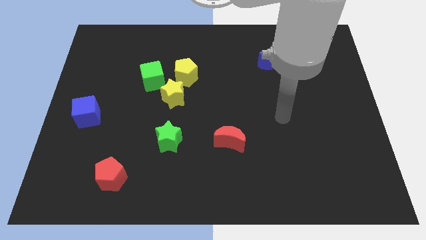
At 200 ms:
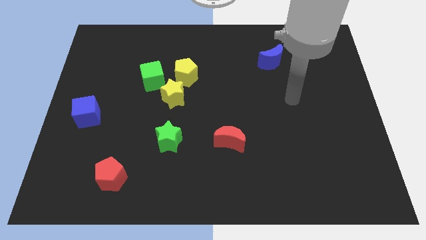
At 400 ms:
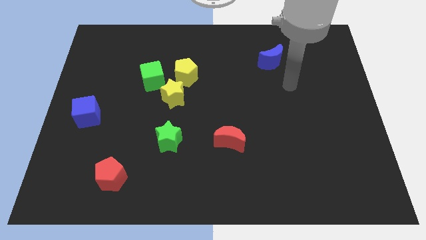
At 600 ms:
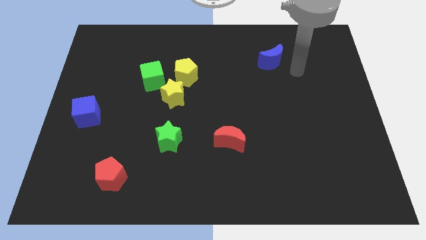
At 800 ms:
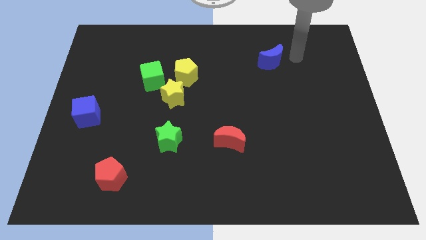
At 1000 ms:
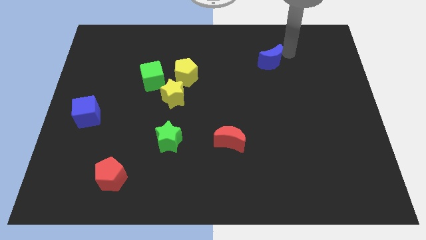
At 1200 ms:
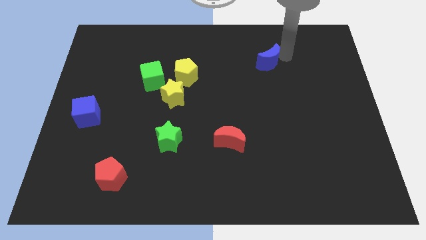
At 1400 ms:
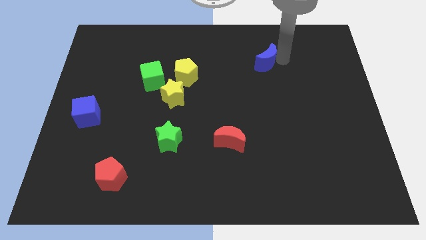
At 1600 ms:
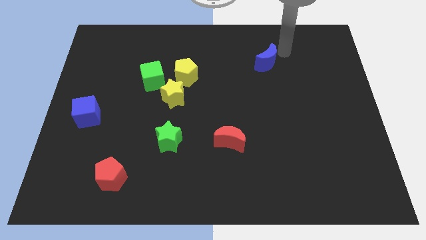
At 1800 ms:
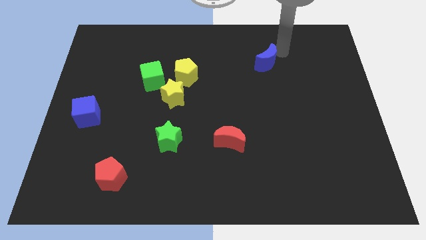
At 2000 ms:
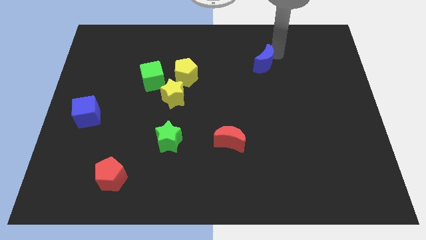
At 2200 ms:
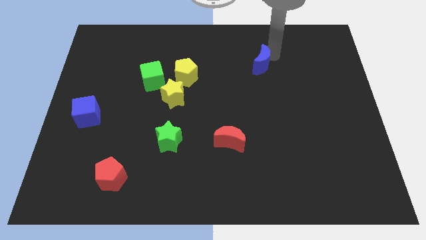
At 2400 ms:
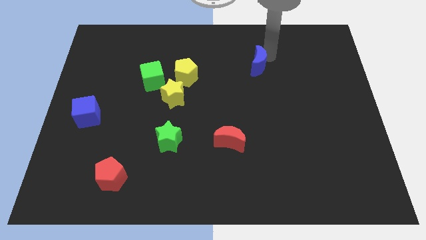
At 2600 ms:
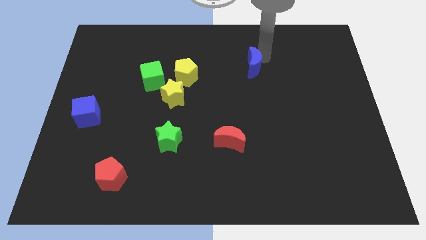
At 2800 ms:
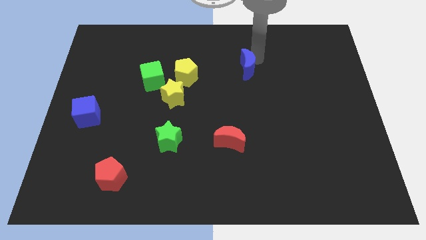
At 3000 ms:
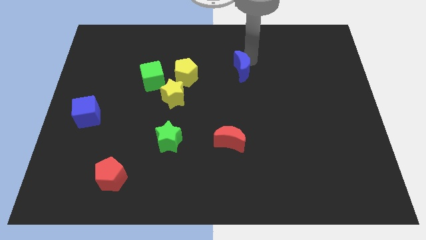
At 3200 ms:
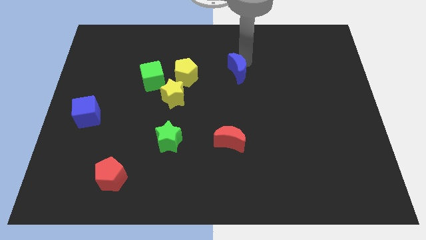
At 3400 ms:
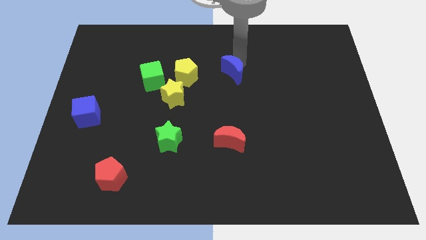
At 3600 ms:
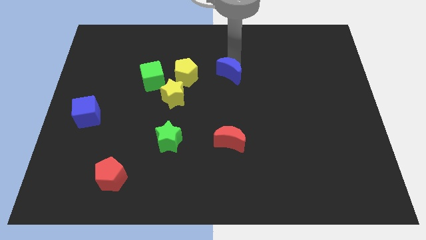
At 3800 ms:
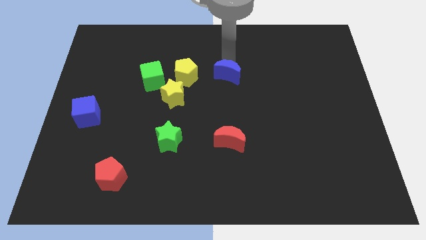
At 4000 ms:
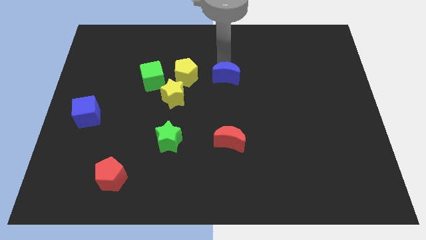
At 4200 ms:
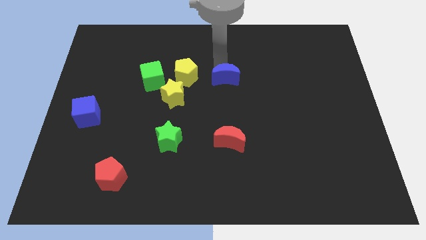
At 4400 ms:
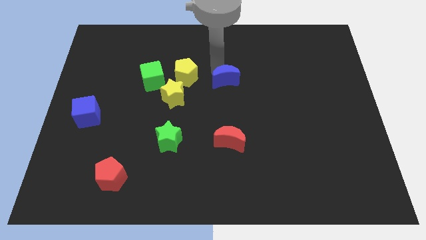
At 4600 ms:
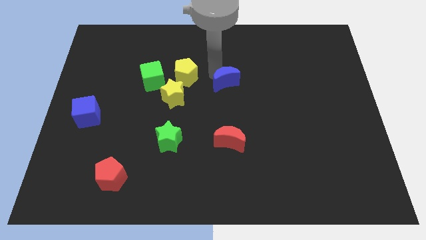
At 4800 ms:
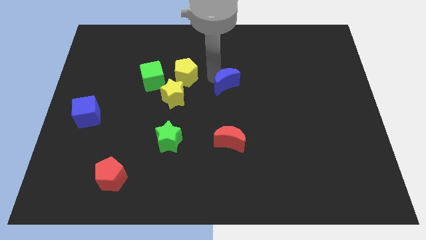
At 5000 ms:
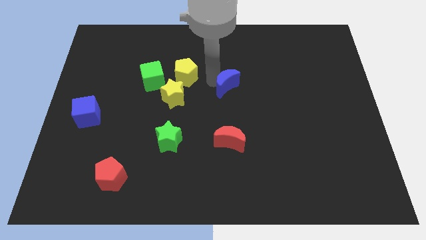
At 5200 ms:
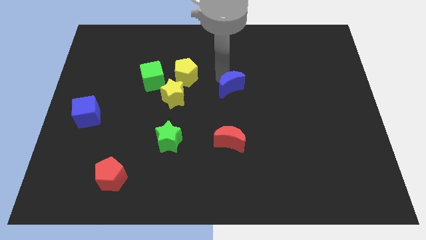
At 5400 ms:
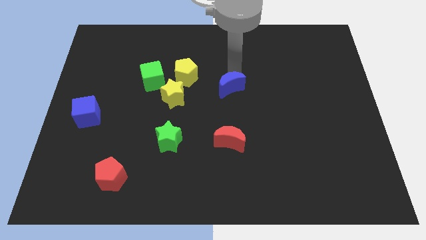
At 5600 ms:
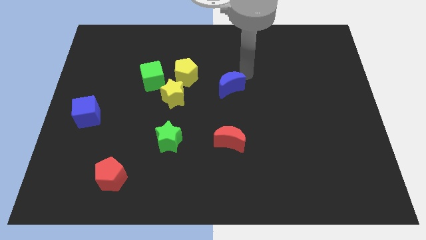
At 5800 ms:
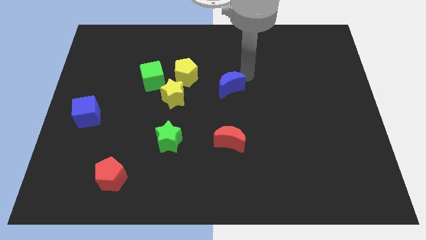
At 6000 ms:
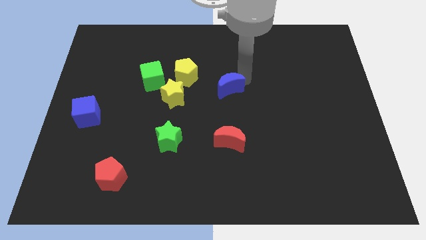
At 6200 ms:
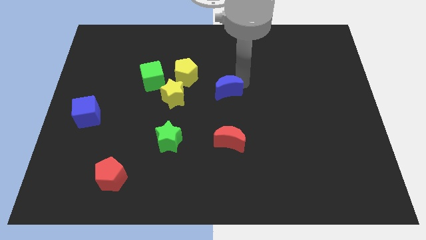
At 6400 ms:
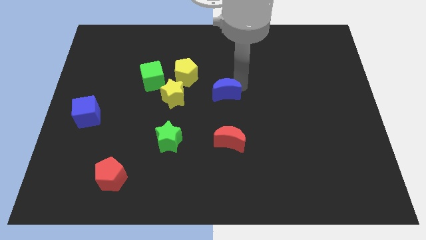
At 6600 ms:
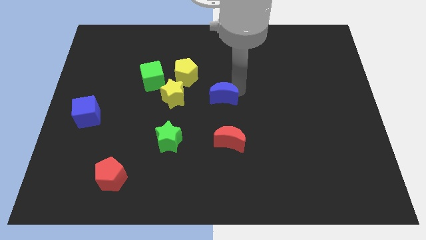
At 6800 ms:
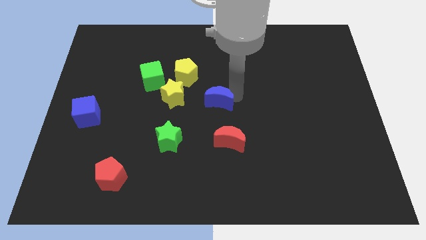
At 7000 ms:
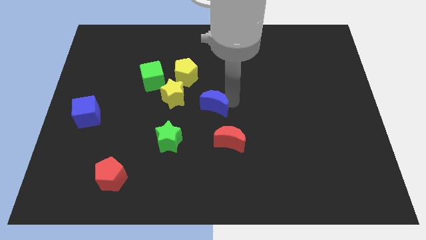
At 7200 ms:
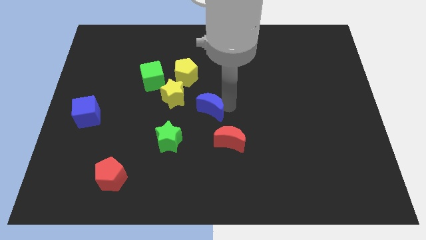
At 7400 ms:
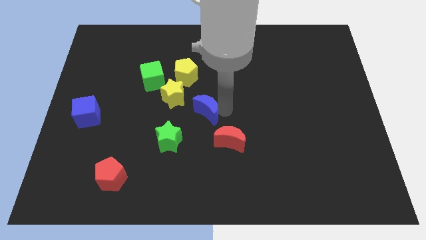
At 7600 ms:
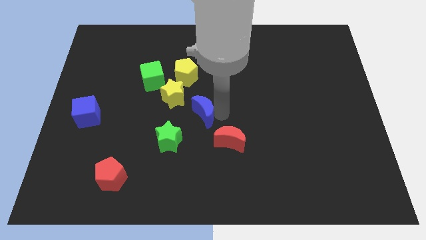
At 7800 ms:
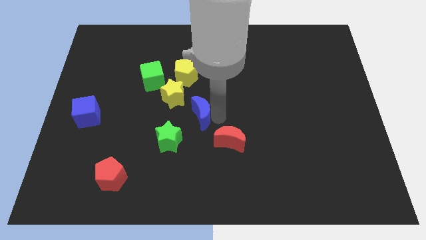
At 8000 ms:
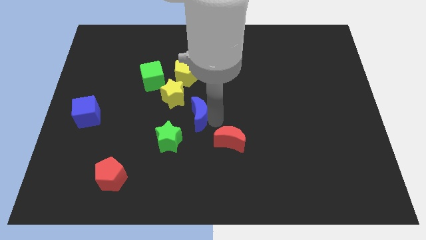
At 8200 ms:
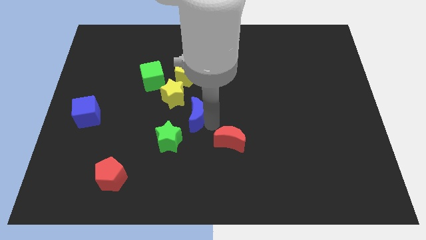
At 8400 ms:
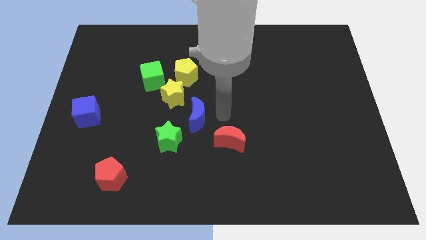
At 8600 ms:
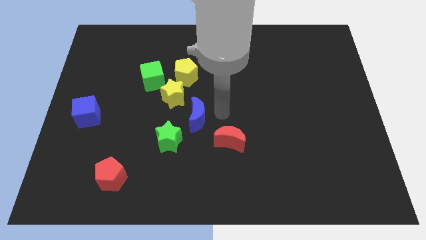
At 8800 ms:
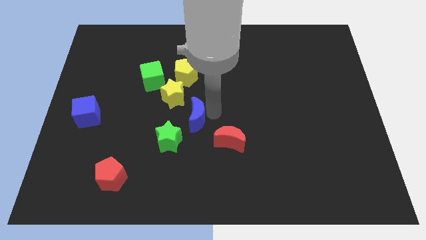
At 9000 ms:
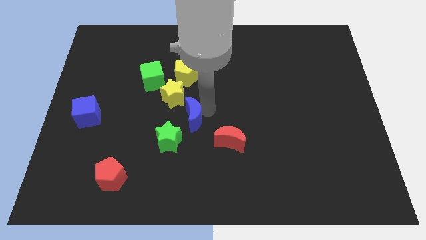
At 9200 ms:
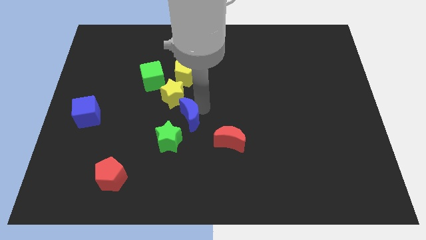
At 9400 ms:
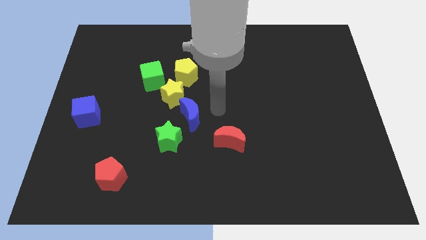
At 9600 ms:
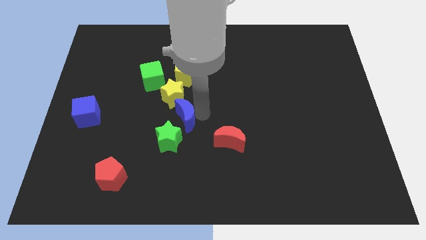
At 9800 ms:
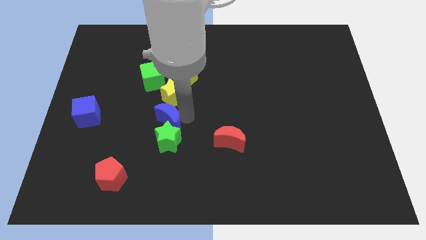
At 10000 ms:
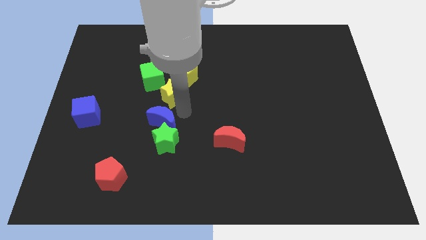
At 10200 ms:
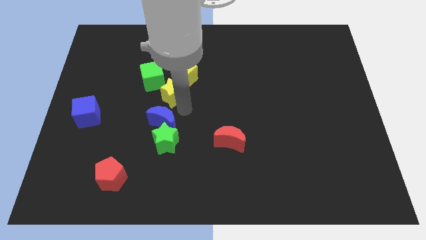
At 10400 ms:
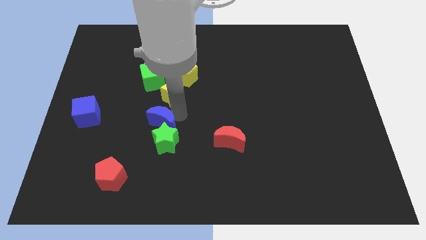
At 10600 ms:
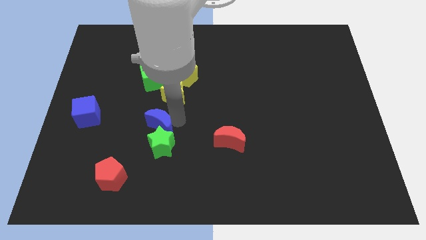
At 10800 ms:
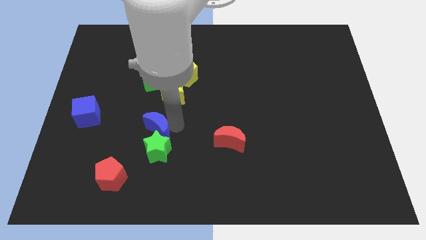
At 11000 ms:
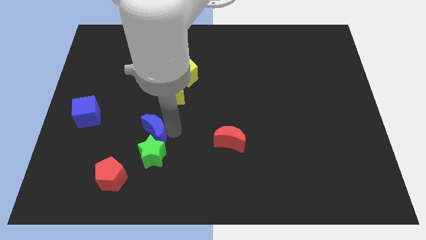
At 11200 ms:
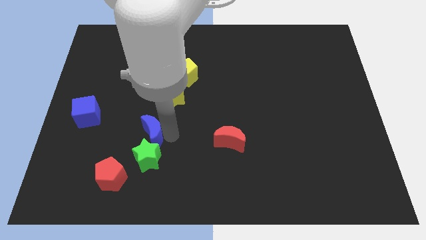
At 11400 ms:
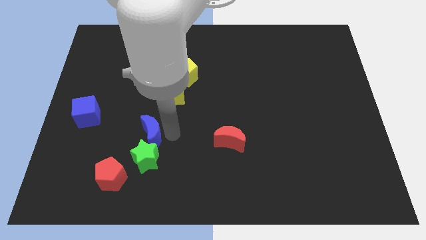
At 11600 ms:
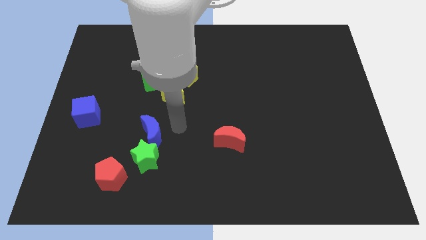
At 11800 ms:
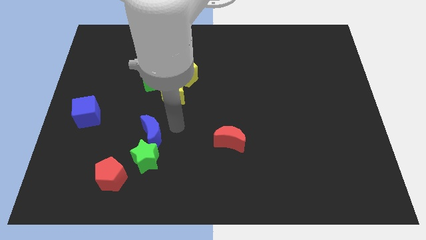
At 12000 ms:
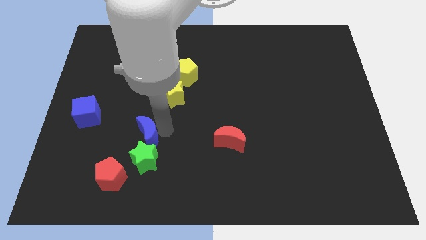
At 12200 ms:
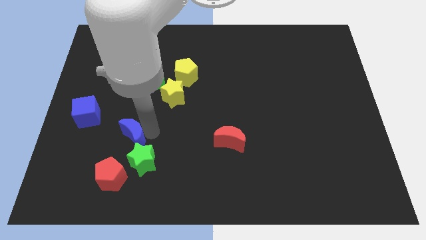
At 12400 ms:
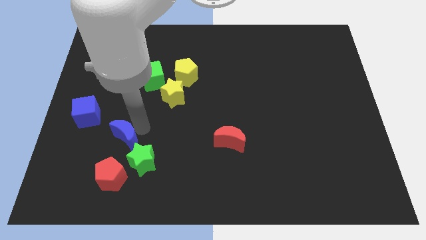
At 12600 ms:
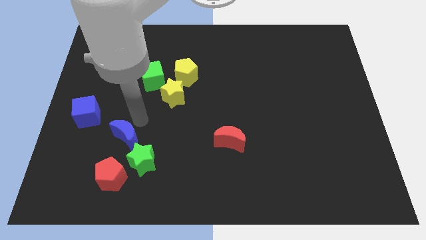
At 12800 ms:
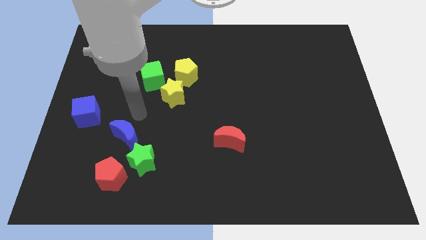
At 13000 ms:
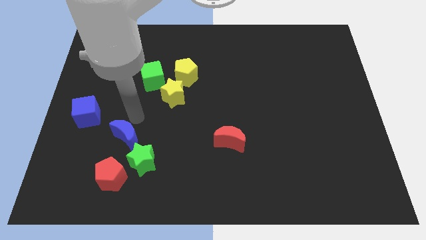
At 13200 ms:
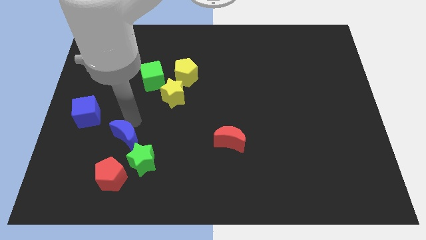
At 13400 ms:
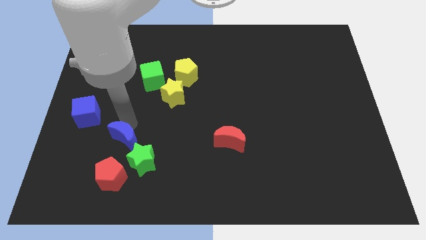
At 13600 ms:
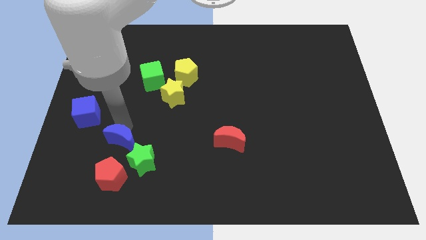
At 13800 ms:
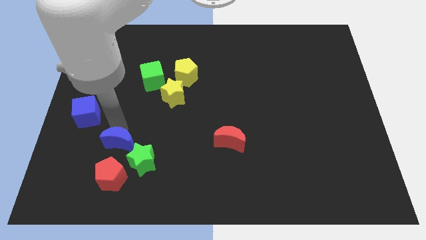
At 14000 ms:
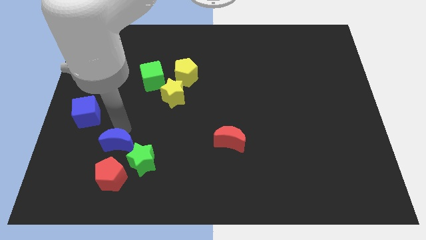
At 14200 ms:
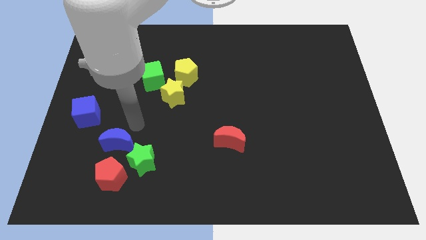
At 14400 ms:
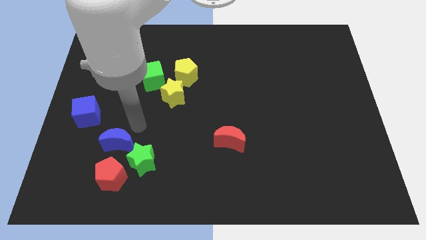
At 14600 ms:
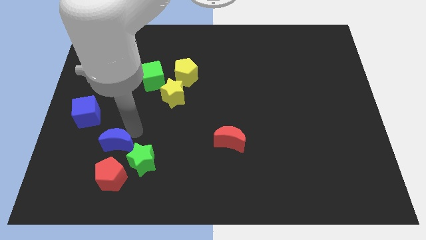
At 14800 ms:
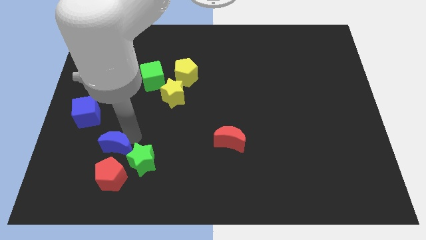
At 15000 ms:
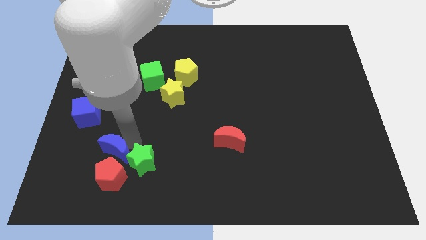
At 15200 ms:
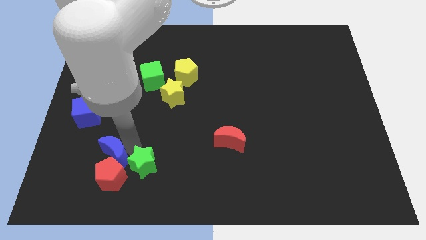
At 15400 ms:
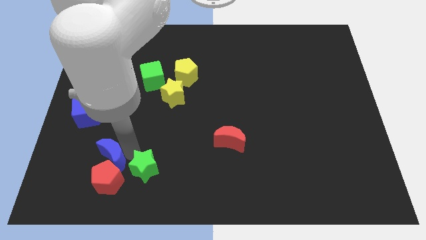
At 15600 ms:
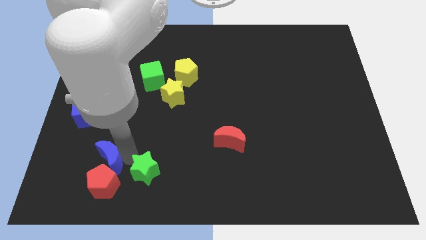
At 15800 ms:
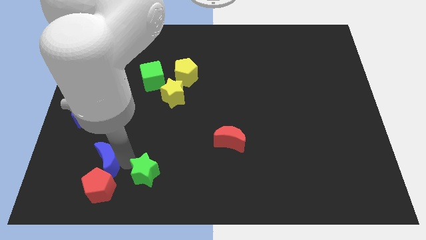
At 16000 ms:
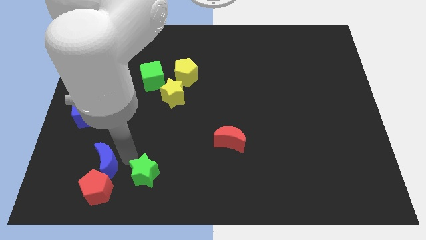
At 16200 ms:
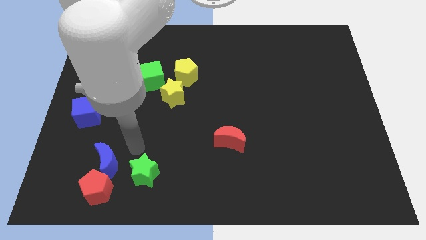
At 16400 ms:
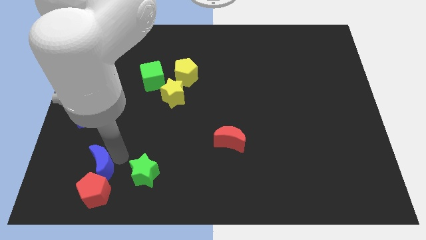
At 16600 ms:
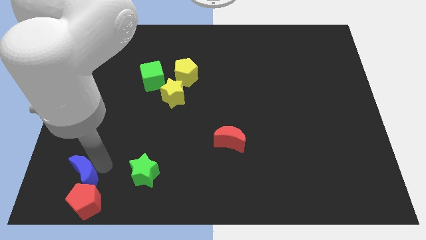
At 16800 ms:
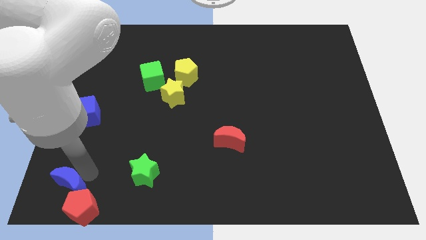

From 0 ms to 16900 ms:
move the blue moon to the lower left corner
